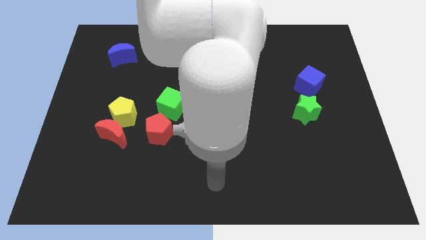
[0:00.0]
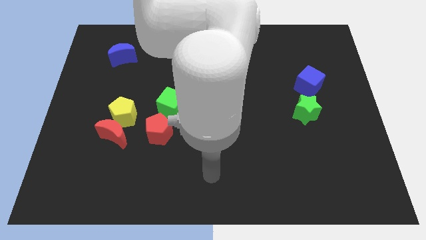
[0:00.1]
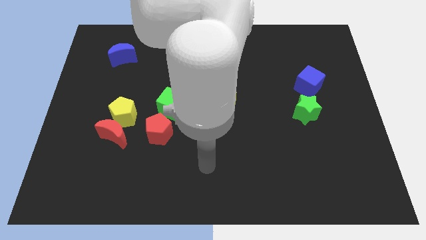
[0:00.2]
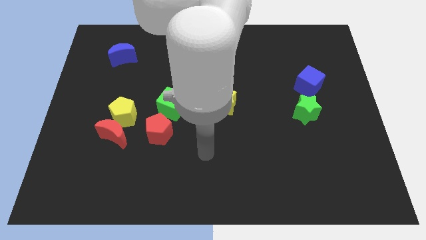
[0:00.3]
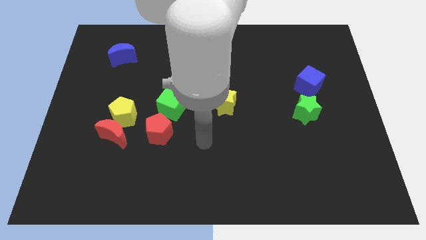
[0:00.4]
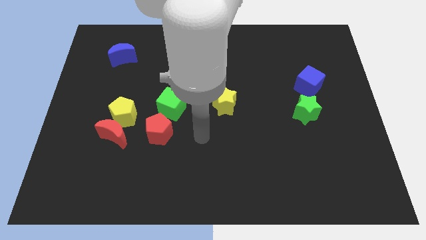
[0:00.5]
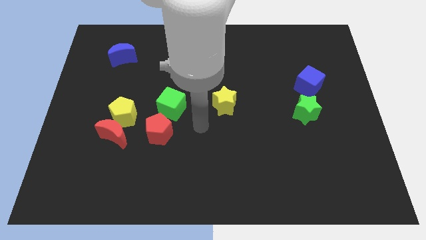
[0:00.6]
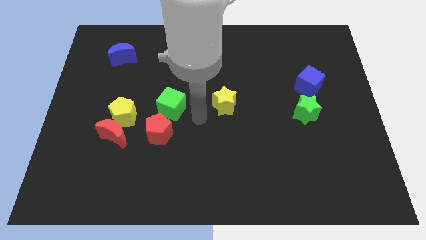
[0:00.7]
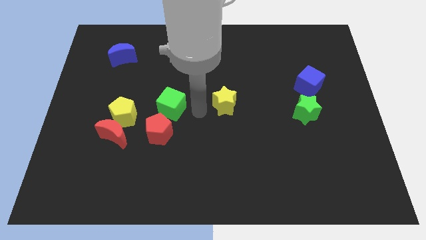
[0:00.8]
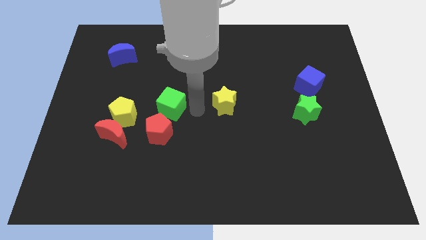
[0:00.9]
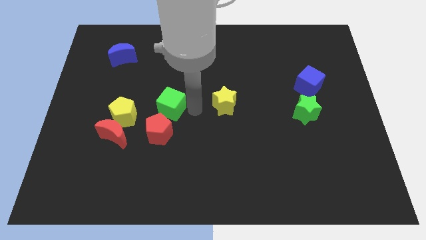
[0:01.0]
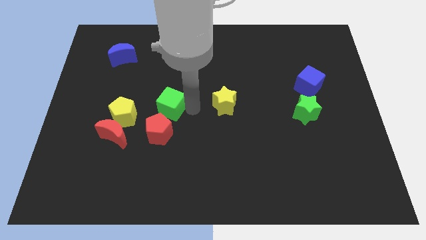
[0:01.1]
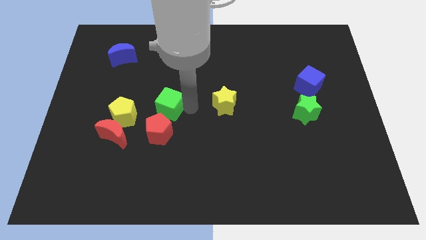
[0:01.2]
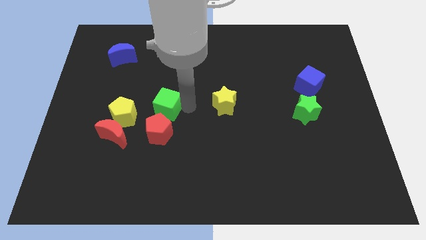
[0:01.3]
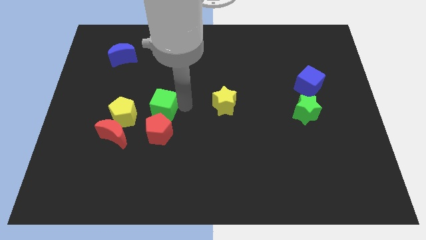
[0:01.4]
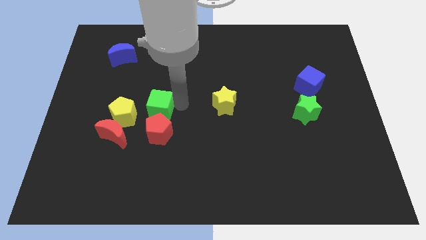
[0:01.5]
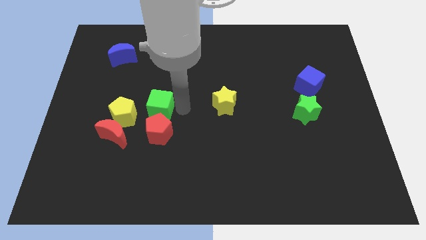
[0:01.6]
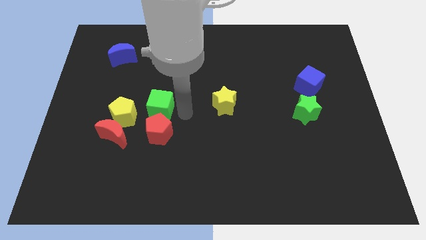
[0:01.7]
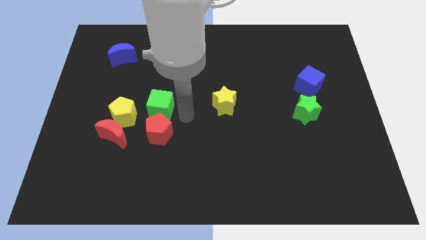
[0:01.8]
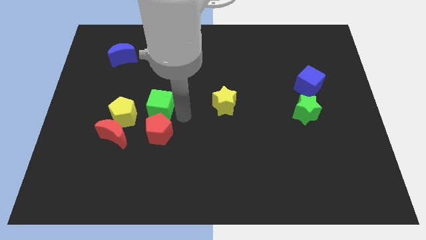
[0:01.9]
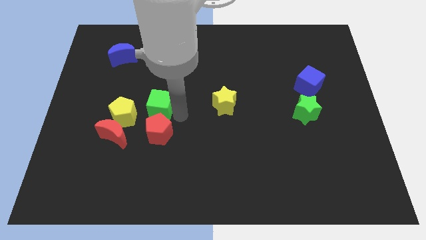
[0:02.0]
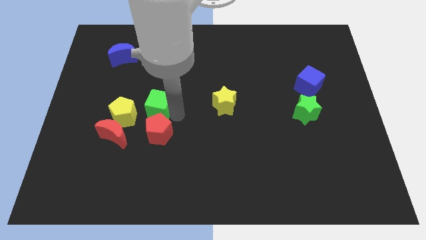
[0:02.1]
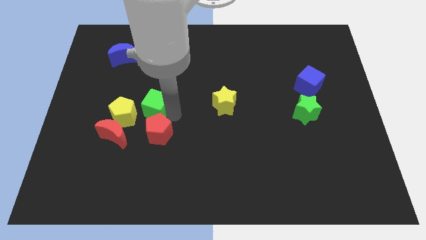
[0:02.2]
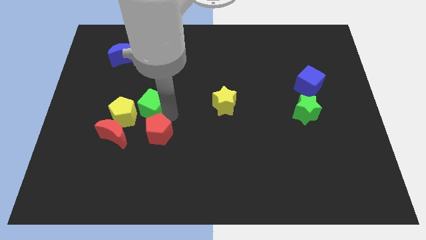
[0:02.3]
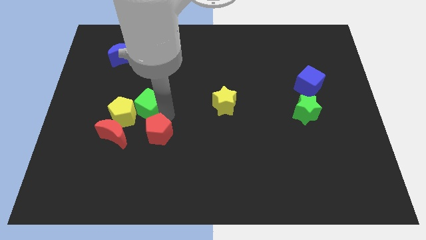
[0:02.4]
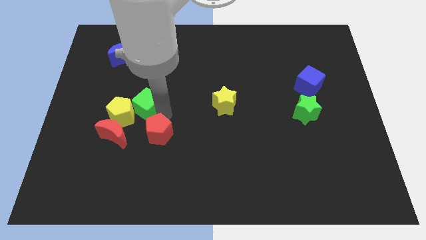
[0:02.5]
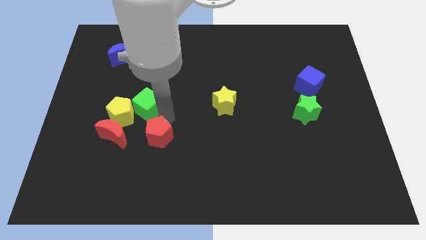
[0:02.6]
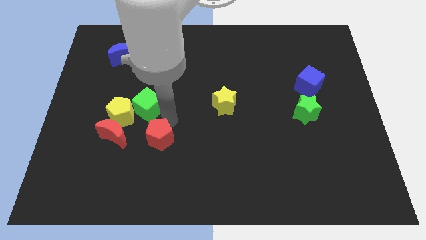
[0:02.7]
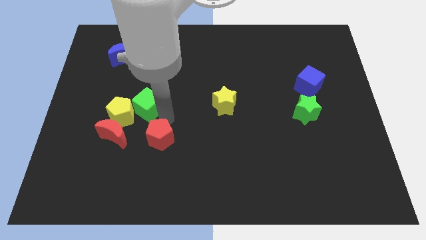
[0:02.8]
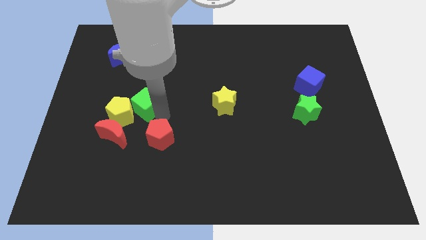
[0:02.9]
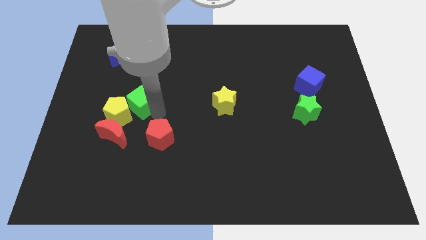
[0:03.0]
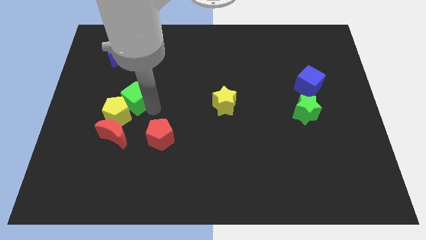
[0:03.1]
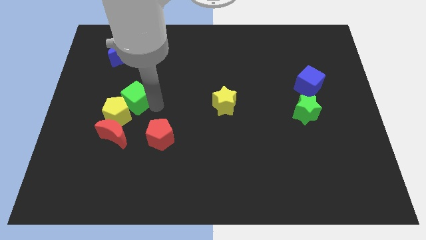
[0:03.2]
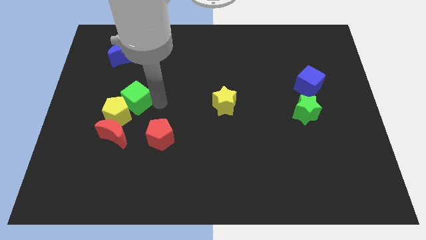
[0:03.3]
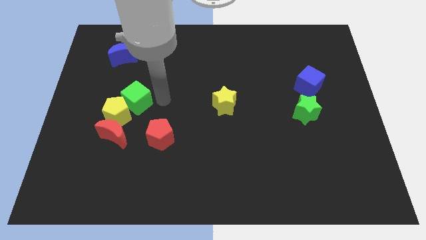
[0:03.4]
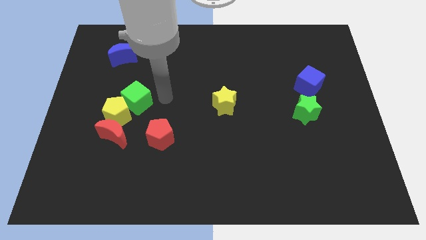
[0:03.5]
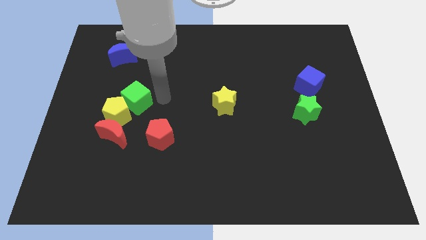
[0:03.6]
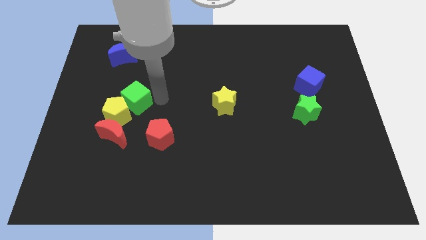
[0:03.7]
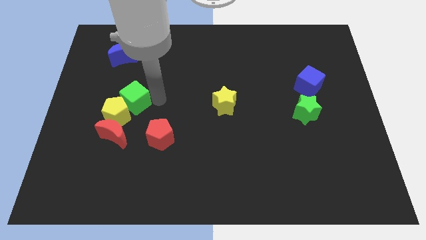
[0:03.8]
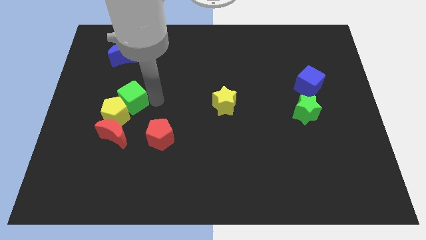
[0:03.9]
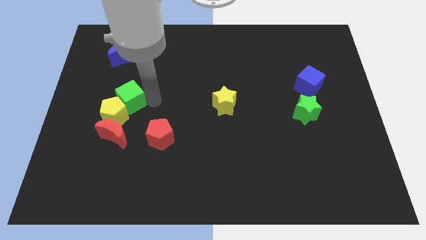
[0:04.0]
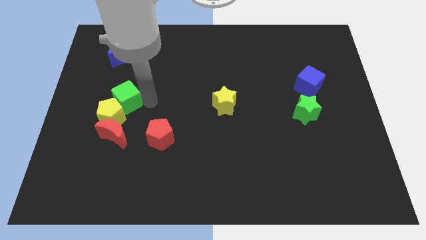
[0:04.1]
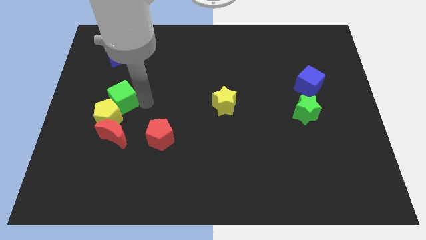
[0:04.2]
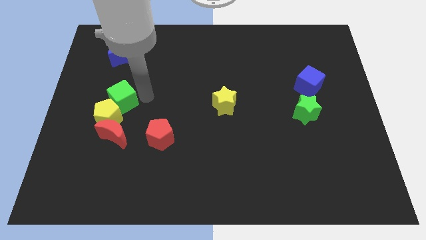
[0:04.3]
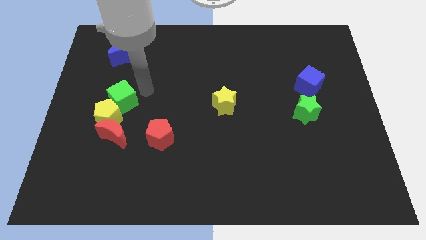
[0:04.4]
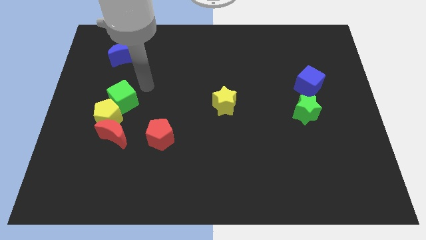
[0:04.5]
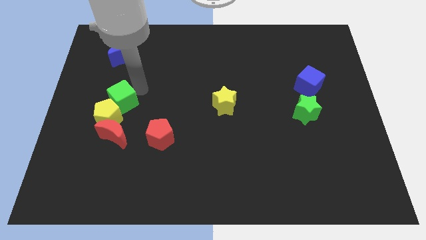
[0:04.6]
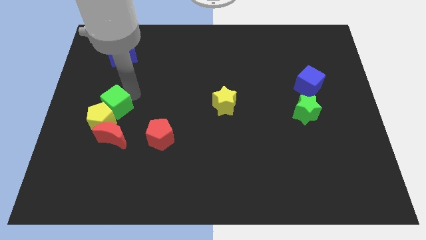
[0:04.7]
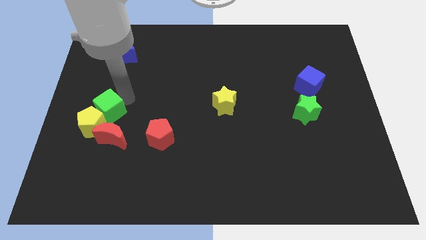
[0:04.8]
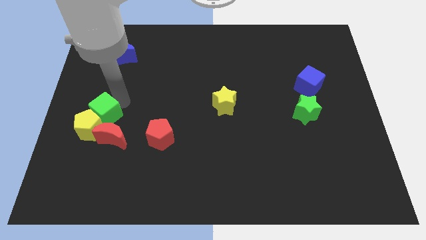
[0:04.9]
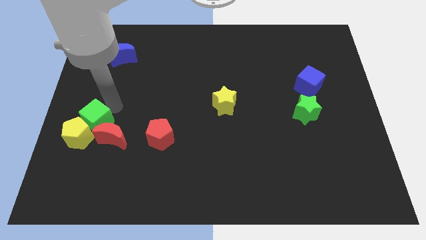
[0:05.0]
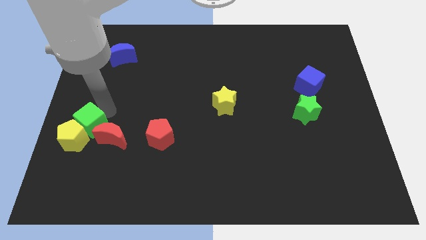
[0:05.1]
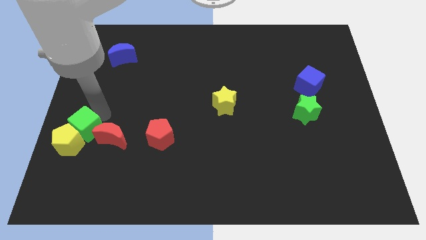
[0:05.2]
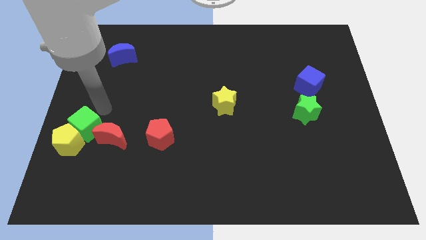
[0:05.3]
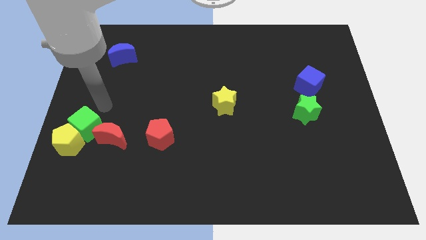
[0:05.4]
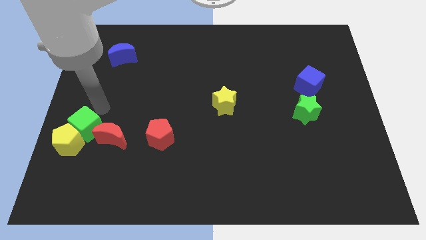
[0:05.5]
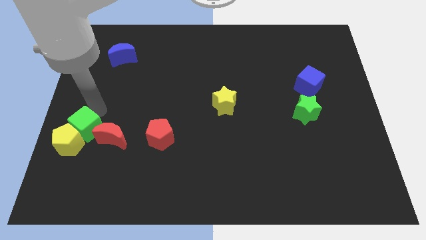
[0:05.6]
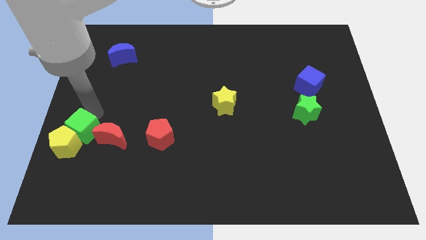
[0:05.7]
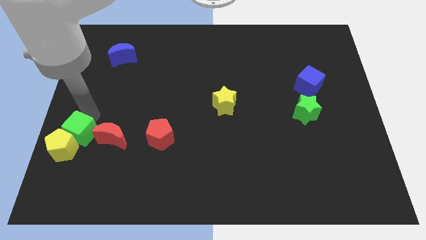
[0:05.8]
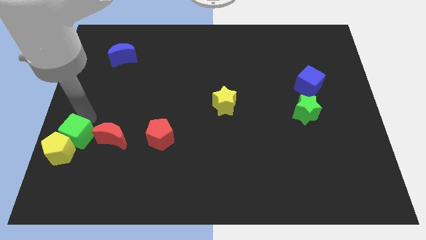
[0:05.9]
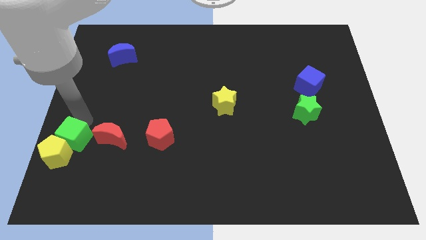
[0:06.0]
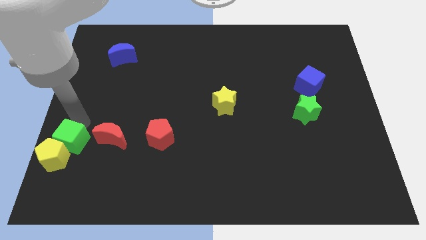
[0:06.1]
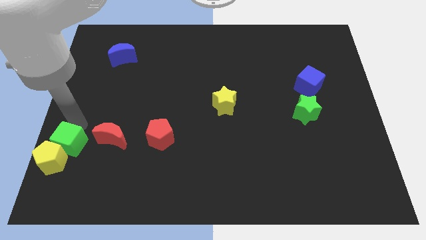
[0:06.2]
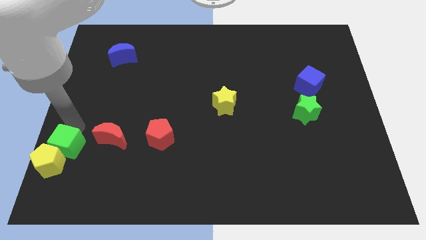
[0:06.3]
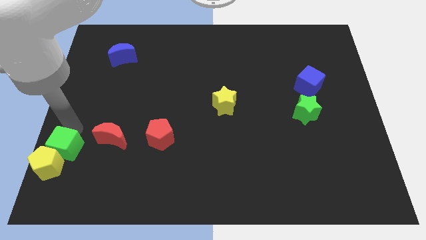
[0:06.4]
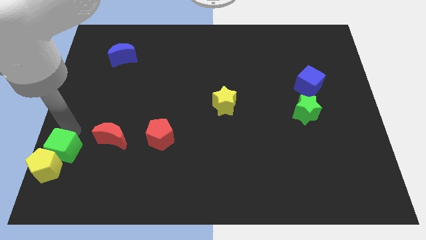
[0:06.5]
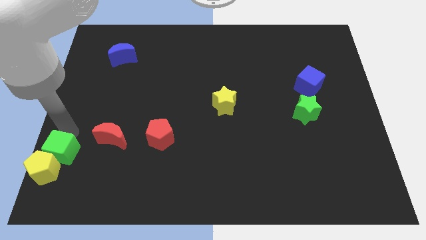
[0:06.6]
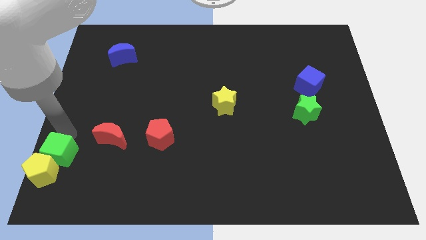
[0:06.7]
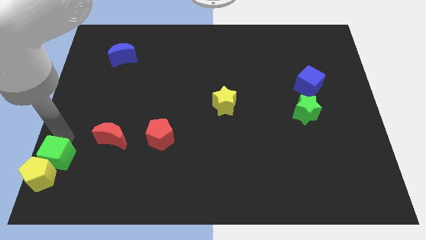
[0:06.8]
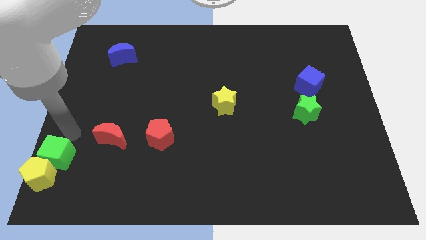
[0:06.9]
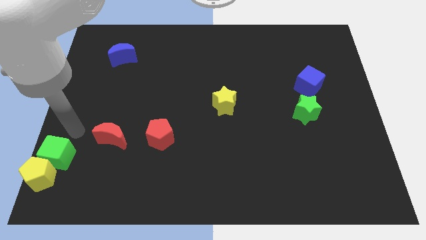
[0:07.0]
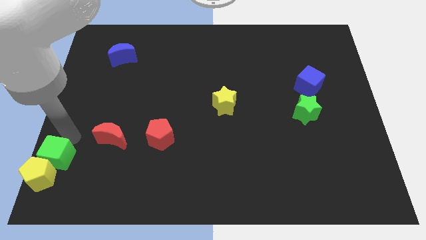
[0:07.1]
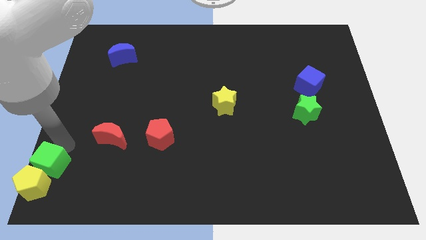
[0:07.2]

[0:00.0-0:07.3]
slide the green cube to the bottom left
